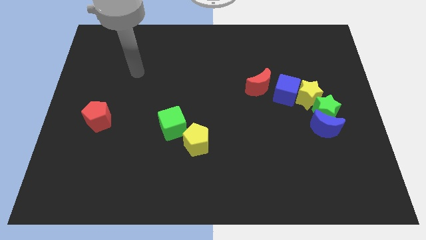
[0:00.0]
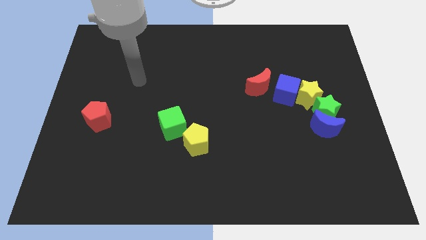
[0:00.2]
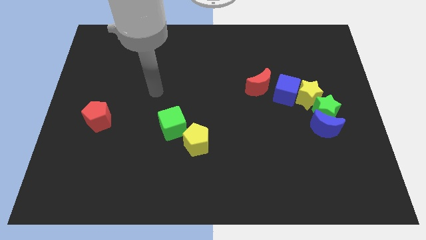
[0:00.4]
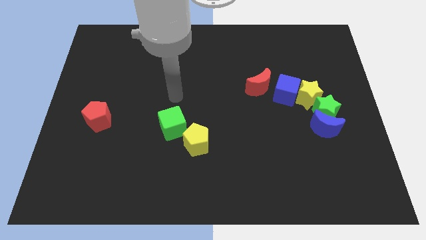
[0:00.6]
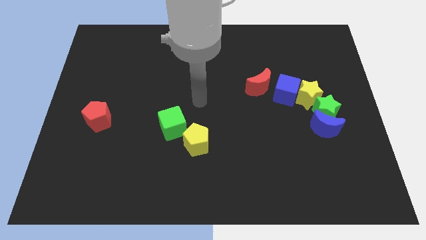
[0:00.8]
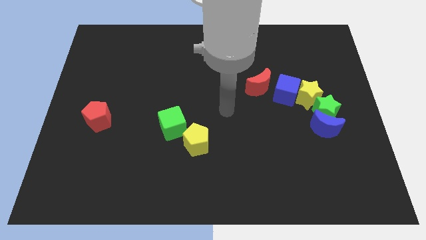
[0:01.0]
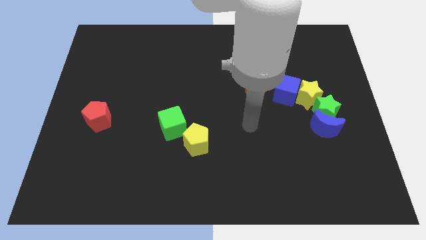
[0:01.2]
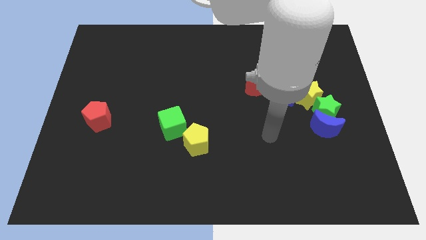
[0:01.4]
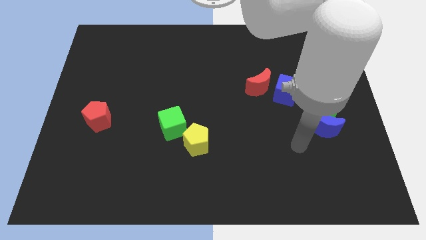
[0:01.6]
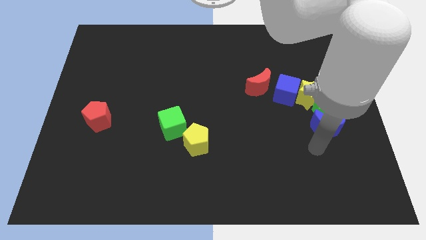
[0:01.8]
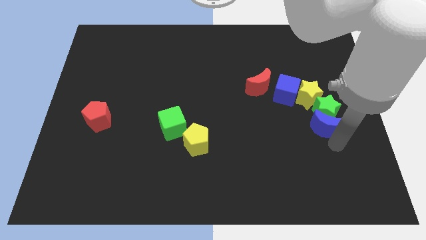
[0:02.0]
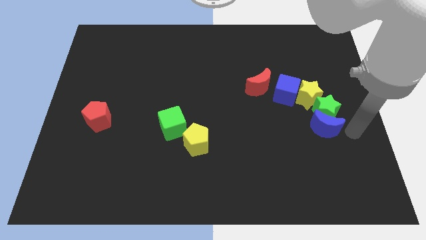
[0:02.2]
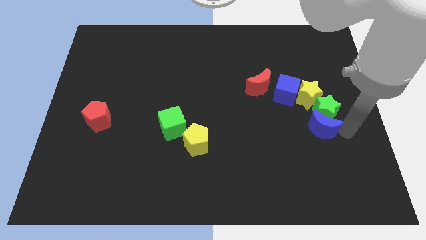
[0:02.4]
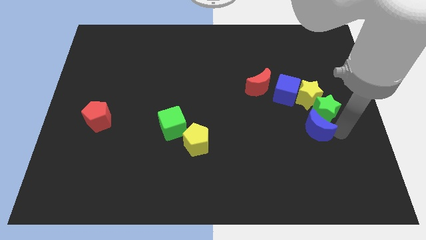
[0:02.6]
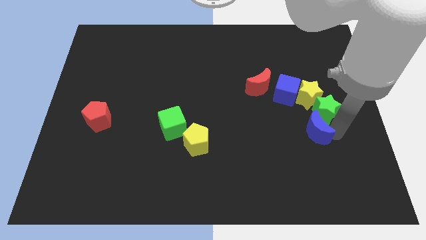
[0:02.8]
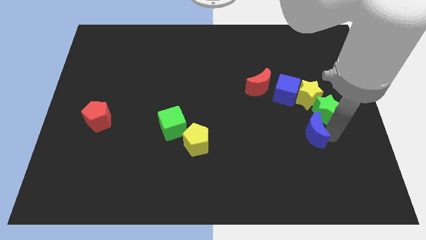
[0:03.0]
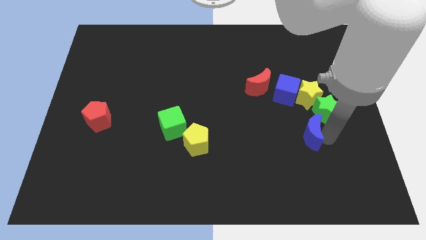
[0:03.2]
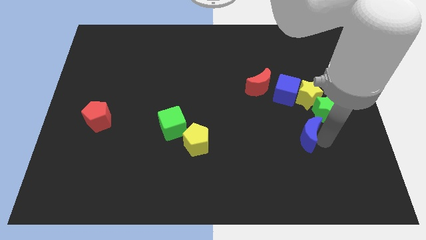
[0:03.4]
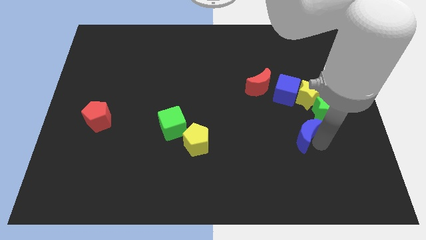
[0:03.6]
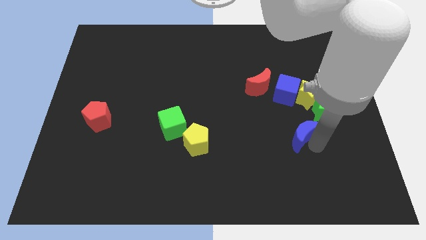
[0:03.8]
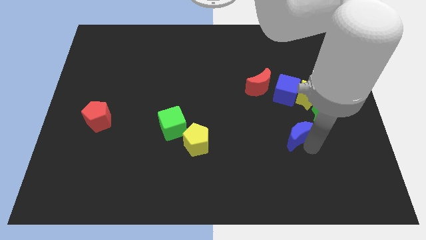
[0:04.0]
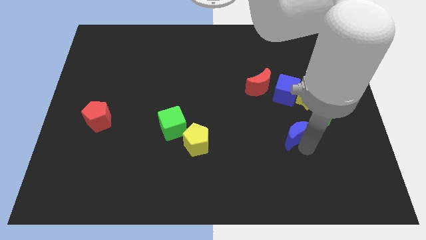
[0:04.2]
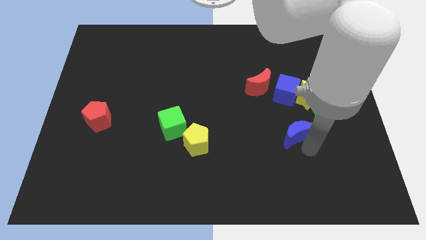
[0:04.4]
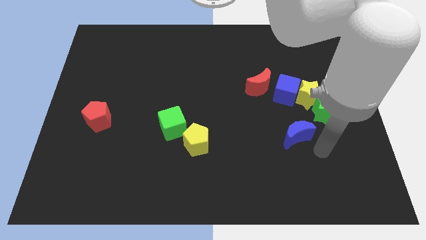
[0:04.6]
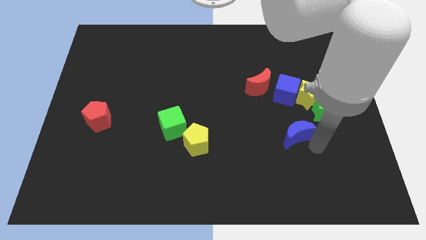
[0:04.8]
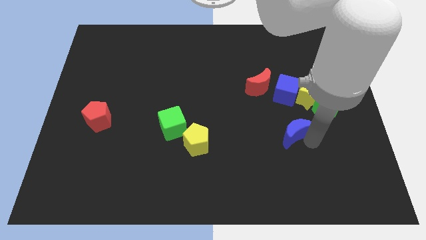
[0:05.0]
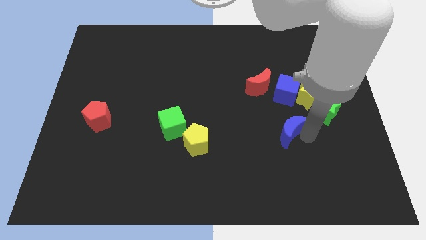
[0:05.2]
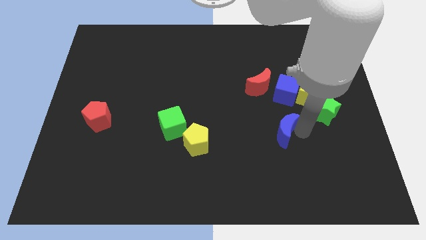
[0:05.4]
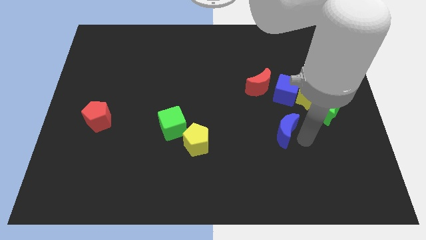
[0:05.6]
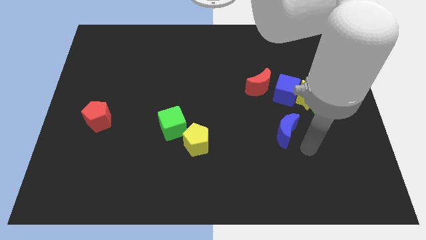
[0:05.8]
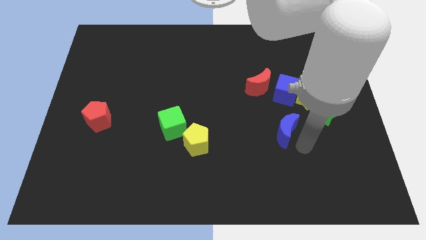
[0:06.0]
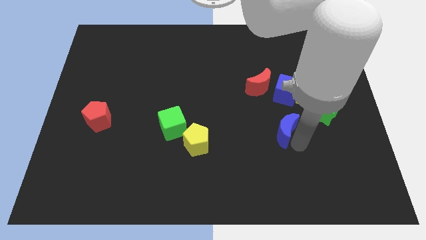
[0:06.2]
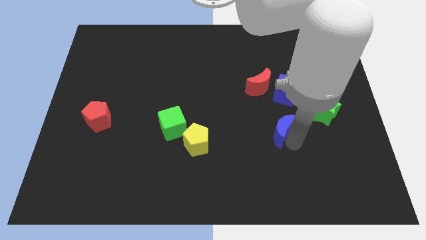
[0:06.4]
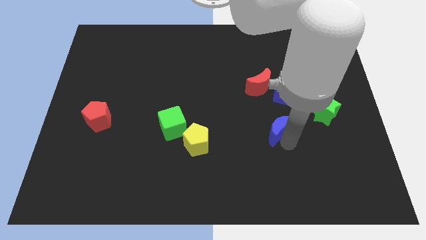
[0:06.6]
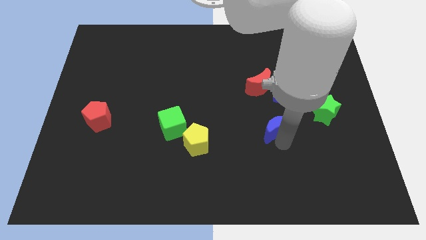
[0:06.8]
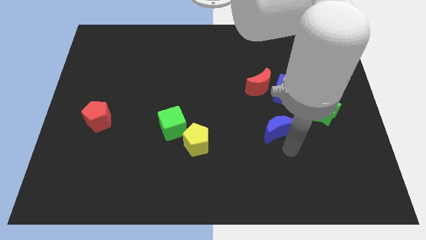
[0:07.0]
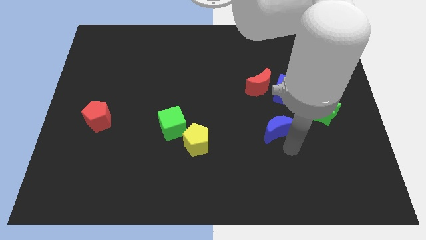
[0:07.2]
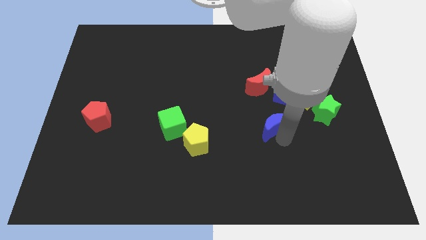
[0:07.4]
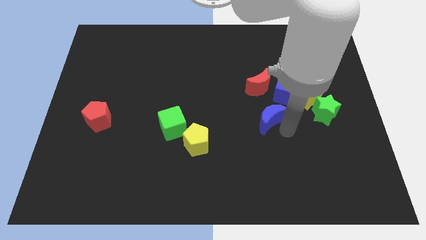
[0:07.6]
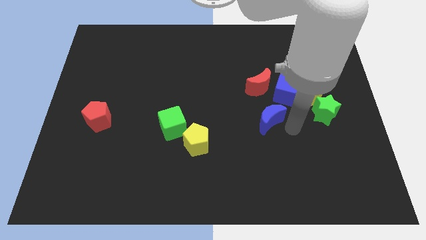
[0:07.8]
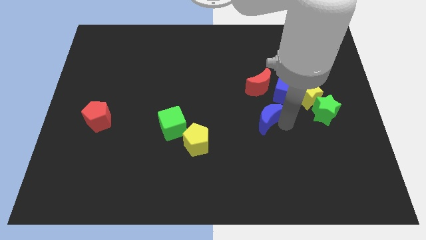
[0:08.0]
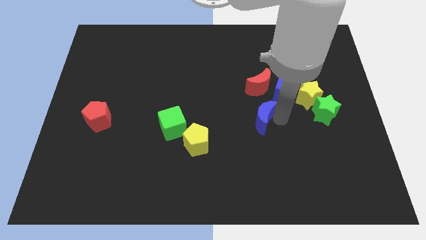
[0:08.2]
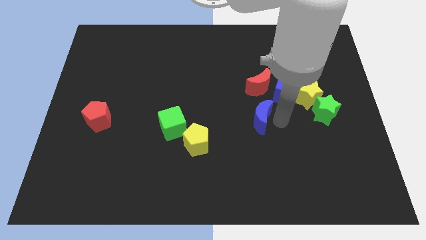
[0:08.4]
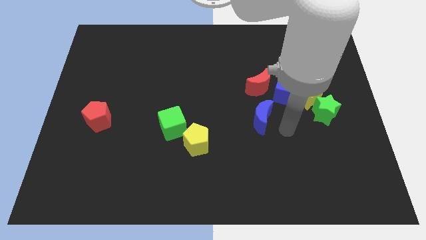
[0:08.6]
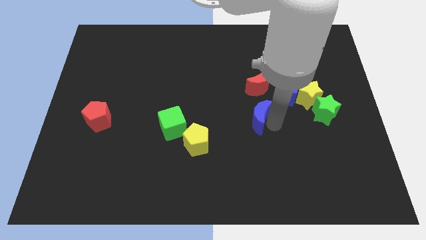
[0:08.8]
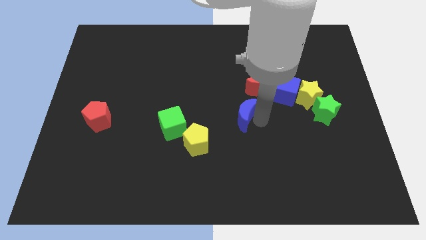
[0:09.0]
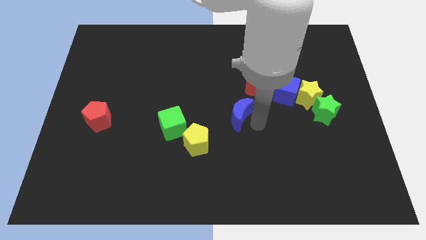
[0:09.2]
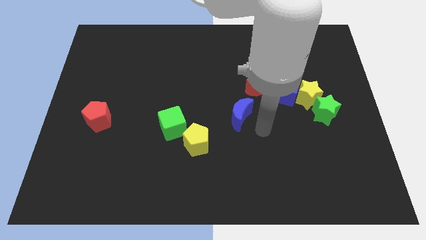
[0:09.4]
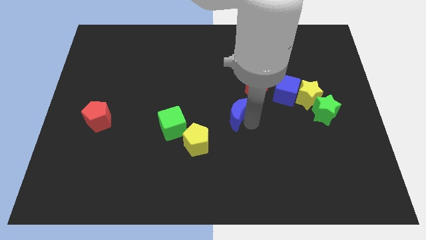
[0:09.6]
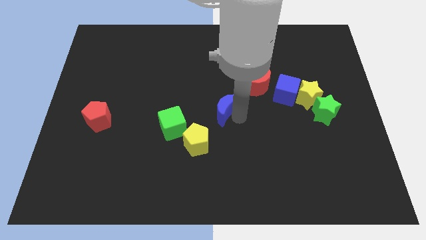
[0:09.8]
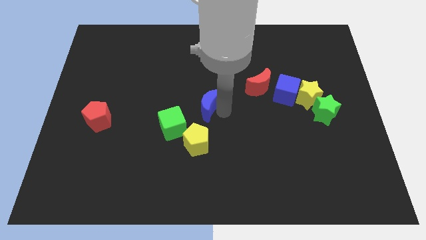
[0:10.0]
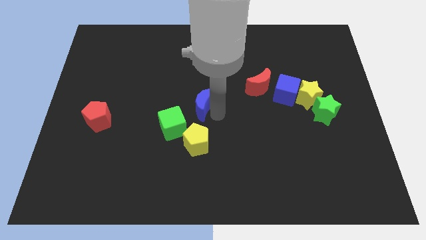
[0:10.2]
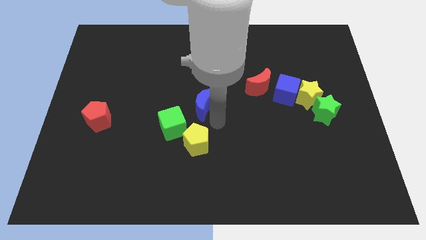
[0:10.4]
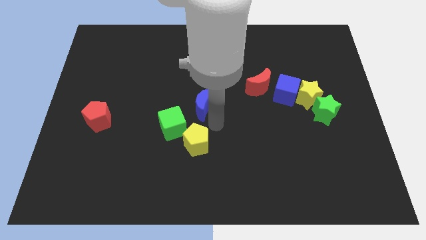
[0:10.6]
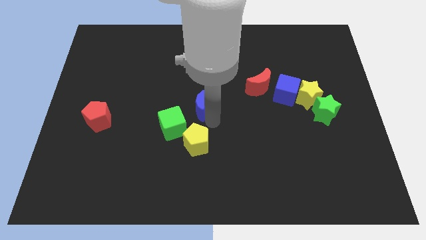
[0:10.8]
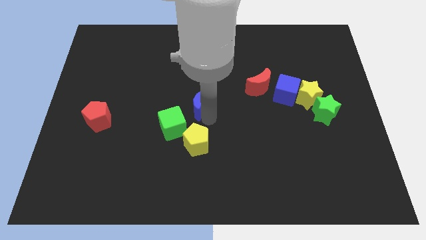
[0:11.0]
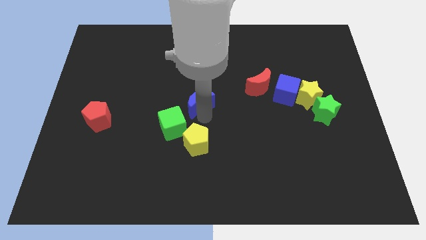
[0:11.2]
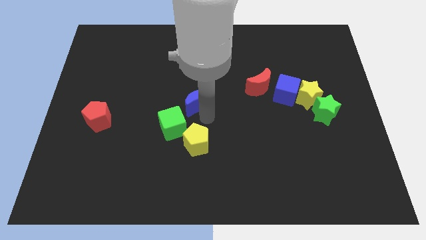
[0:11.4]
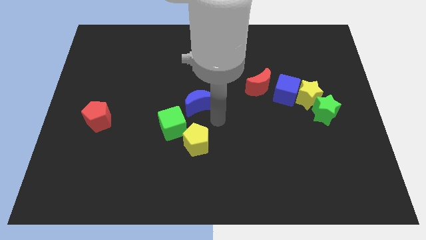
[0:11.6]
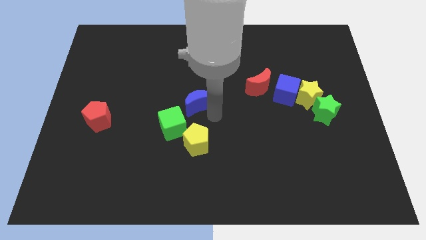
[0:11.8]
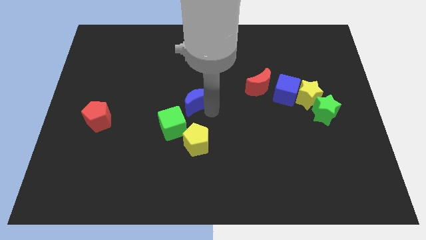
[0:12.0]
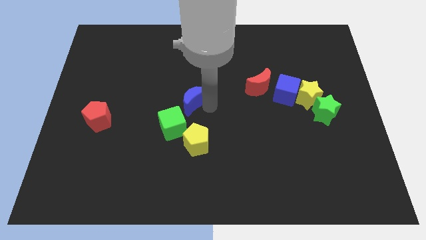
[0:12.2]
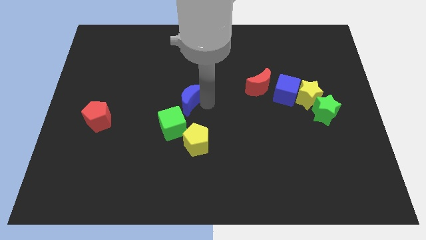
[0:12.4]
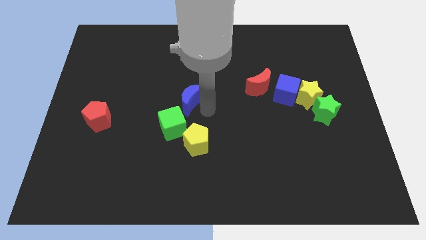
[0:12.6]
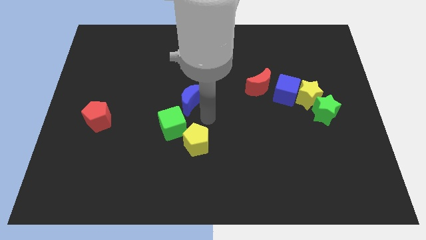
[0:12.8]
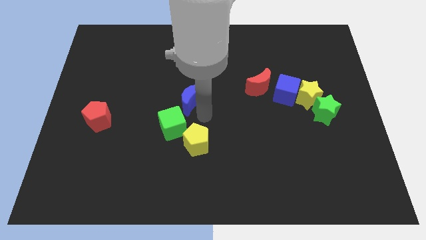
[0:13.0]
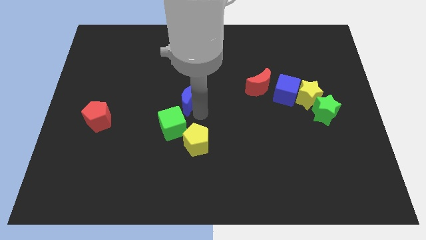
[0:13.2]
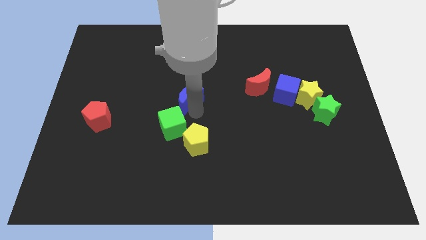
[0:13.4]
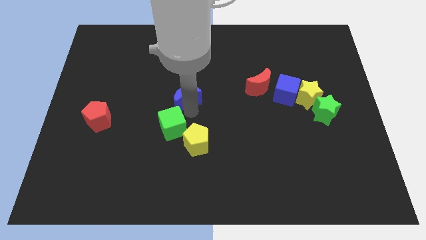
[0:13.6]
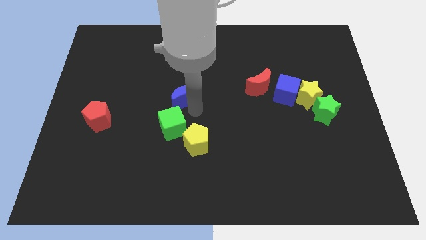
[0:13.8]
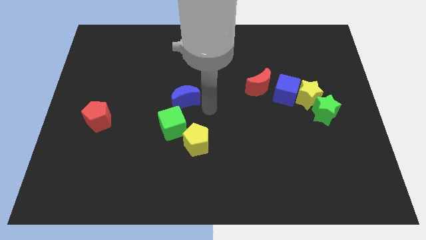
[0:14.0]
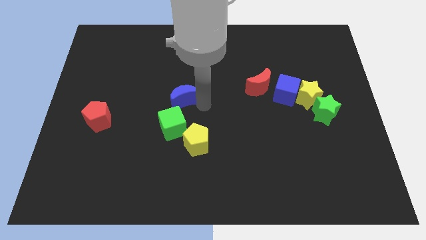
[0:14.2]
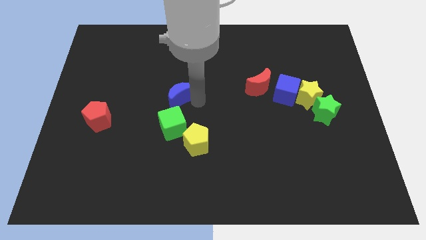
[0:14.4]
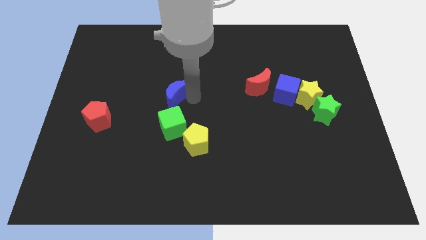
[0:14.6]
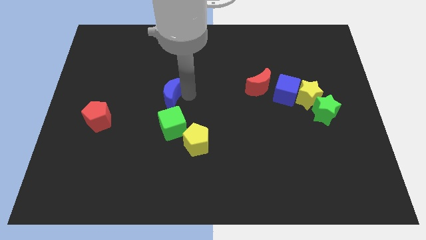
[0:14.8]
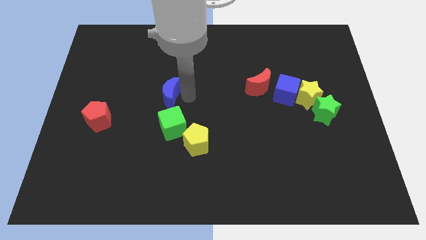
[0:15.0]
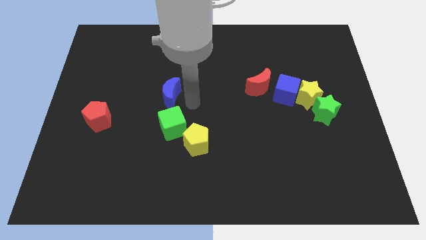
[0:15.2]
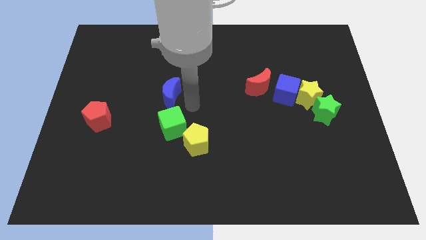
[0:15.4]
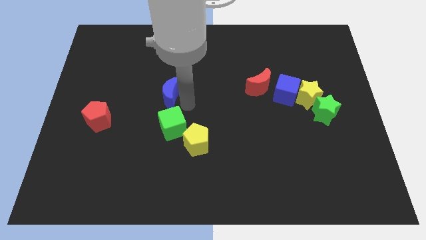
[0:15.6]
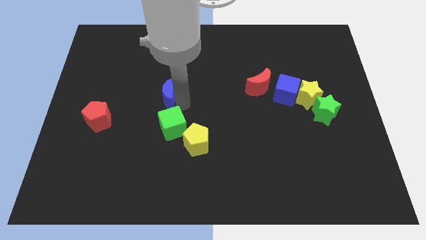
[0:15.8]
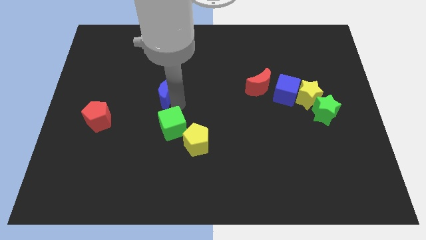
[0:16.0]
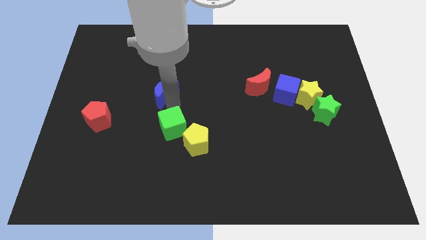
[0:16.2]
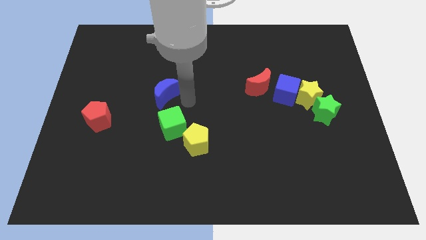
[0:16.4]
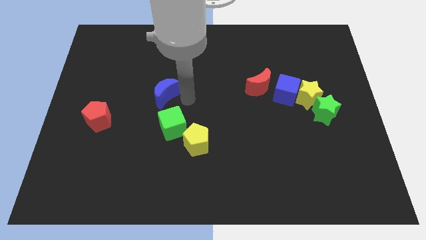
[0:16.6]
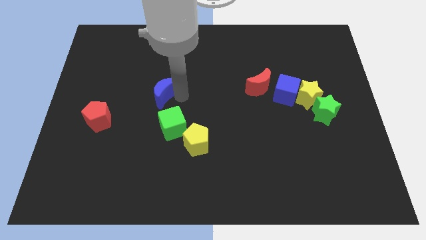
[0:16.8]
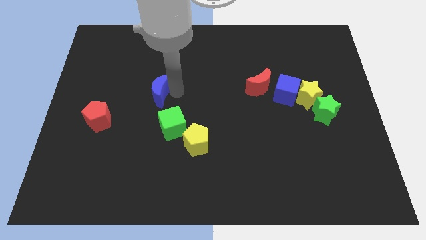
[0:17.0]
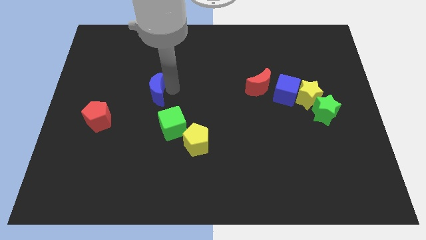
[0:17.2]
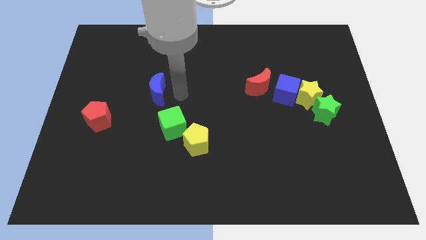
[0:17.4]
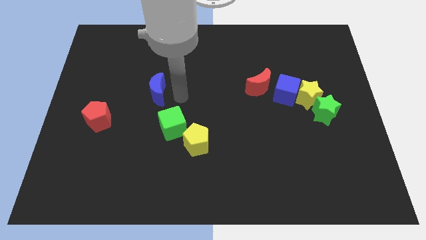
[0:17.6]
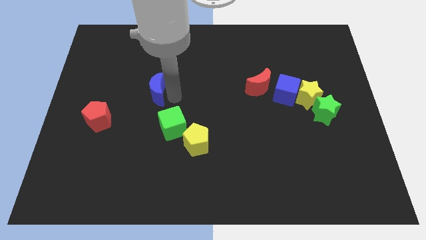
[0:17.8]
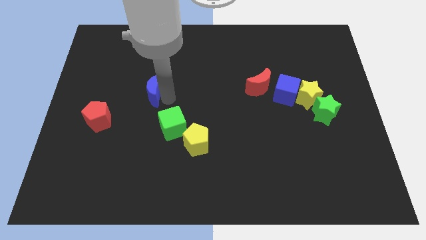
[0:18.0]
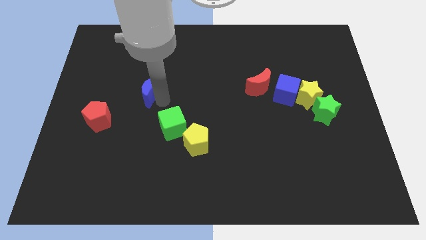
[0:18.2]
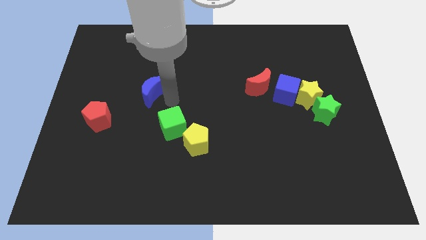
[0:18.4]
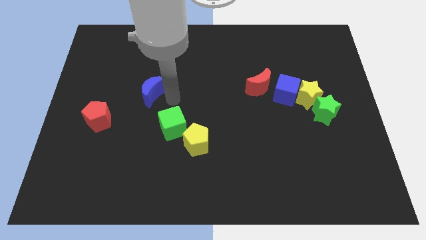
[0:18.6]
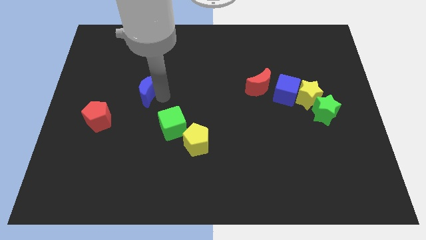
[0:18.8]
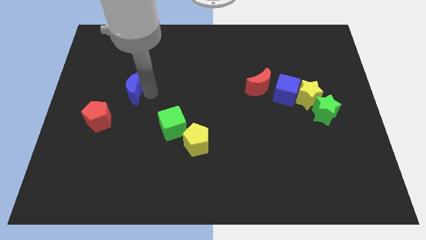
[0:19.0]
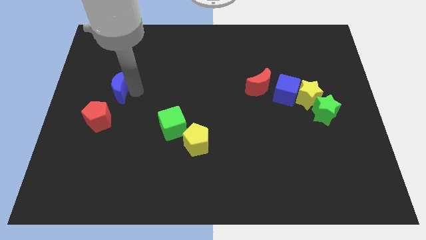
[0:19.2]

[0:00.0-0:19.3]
move the blue moon to the top of the red pentagon
